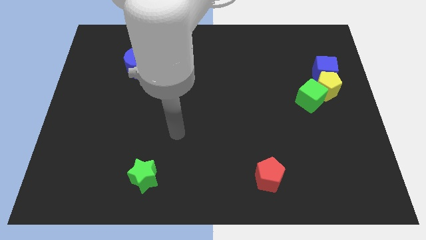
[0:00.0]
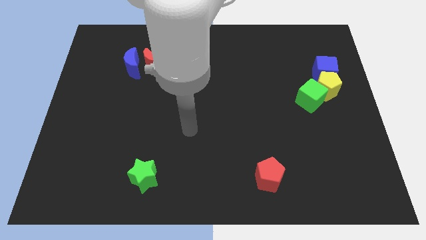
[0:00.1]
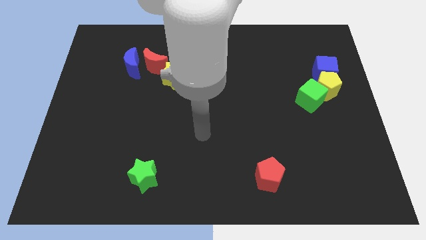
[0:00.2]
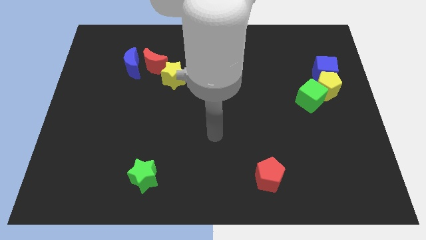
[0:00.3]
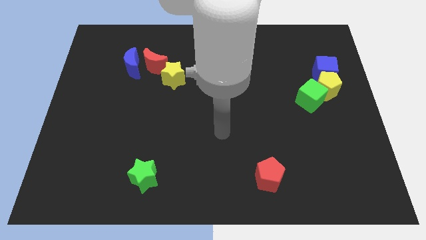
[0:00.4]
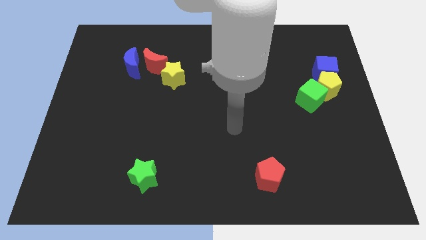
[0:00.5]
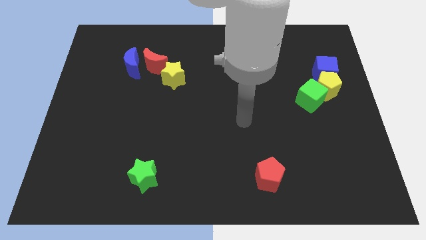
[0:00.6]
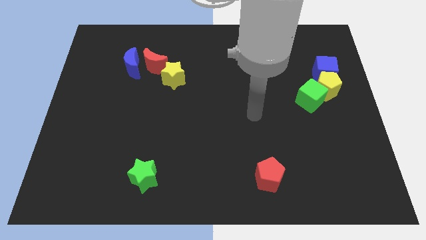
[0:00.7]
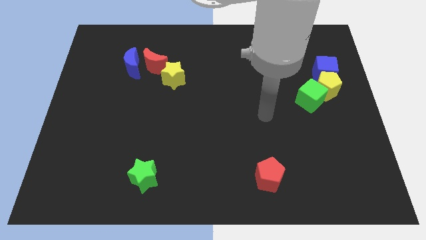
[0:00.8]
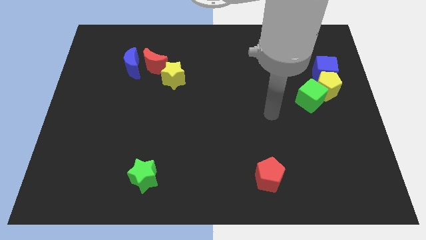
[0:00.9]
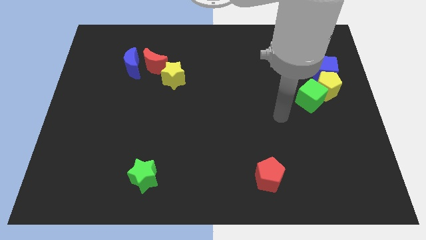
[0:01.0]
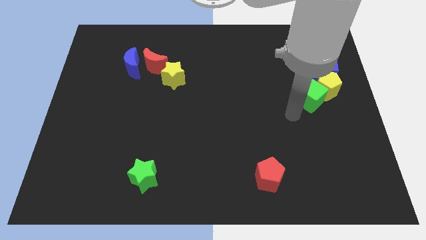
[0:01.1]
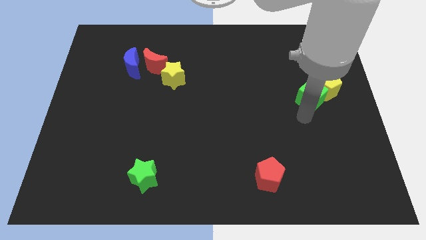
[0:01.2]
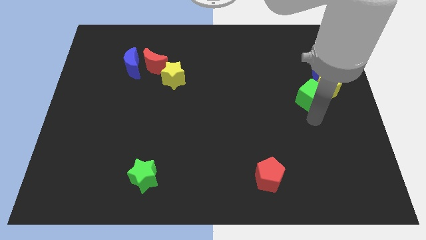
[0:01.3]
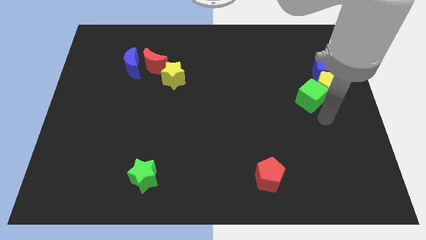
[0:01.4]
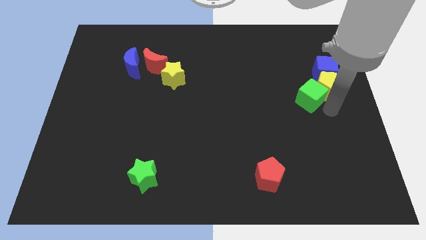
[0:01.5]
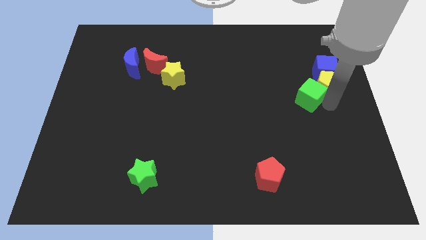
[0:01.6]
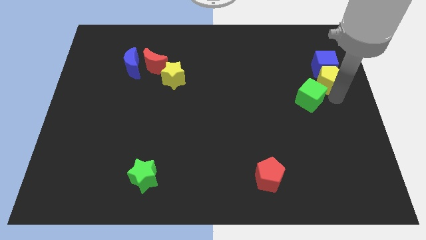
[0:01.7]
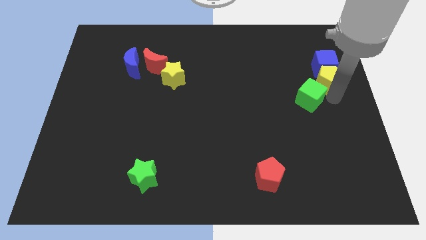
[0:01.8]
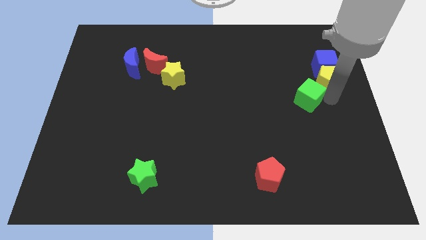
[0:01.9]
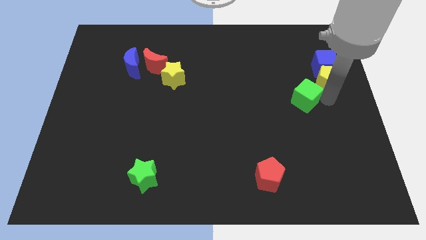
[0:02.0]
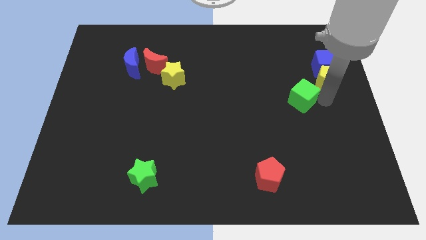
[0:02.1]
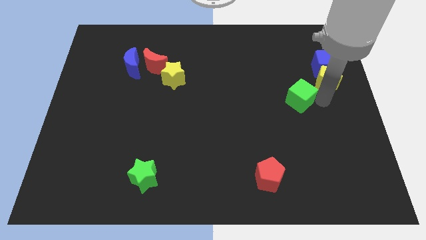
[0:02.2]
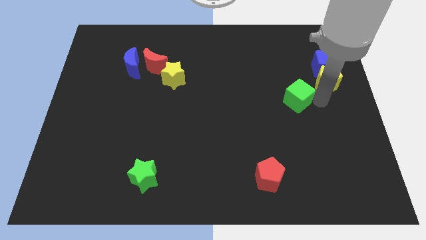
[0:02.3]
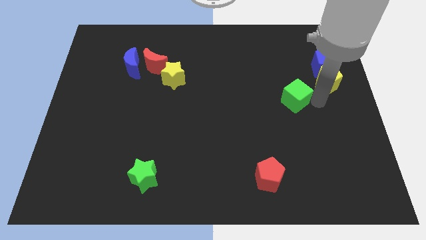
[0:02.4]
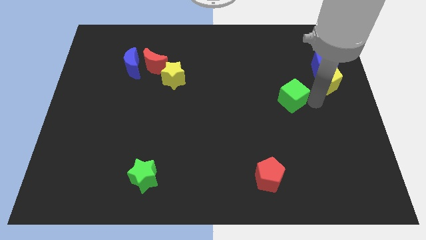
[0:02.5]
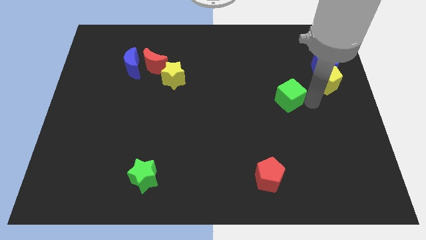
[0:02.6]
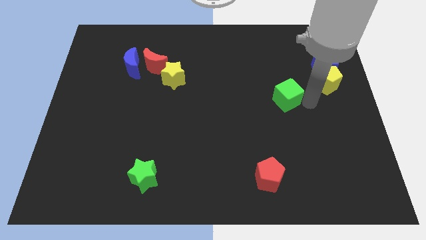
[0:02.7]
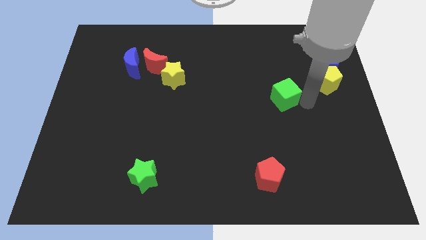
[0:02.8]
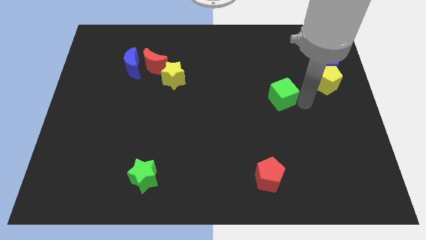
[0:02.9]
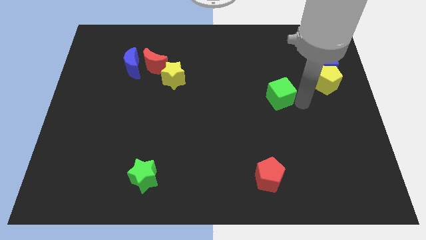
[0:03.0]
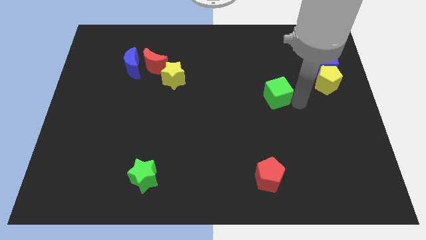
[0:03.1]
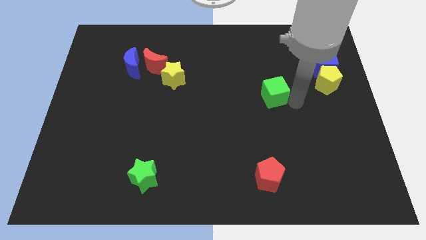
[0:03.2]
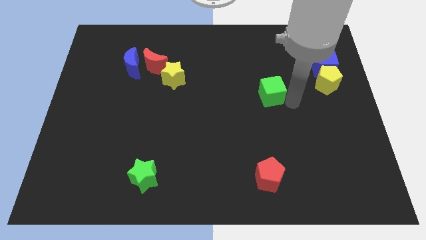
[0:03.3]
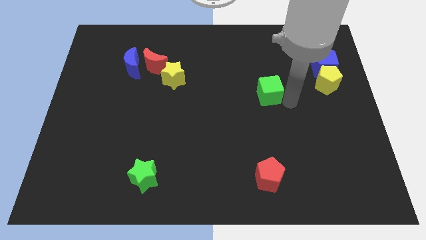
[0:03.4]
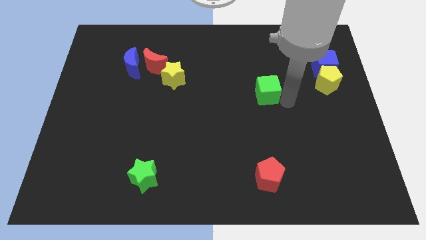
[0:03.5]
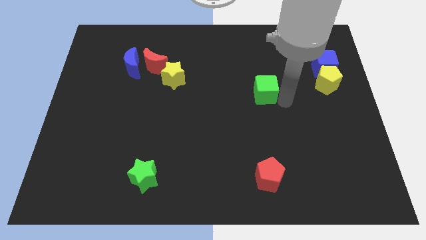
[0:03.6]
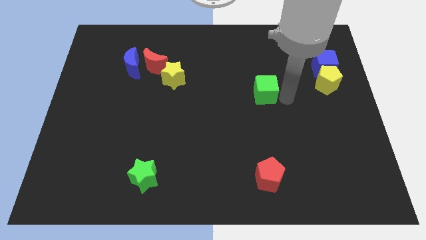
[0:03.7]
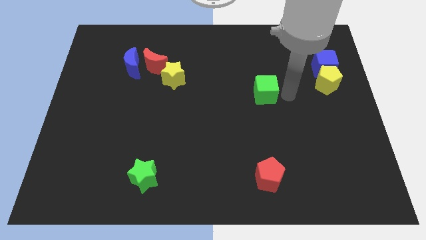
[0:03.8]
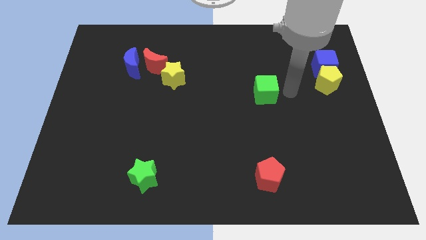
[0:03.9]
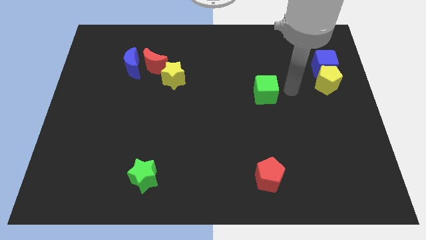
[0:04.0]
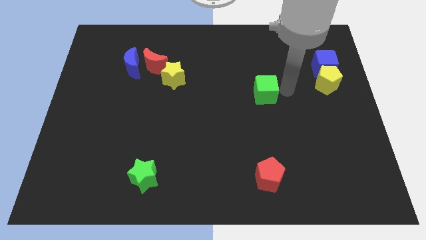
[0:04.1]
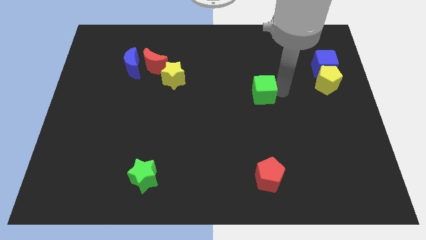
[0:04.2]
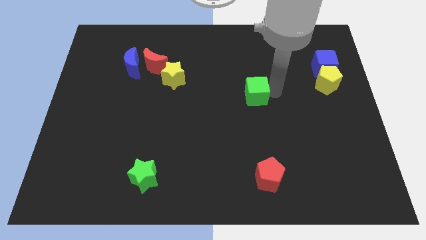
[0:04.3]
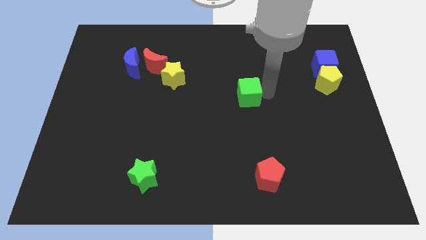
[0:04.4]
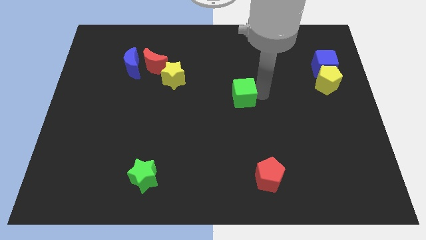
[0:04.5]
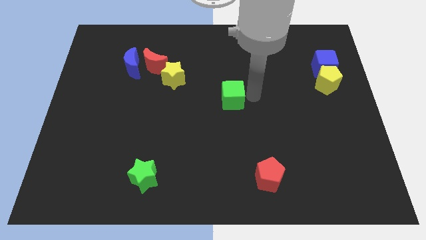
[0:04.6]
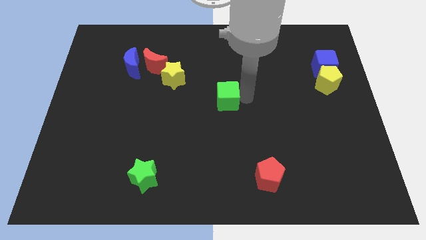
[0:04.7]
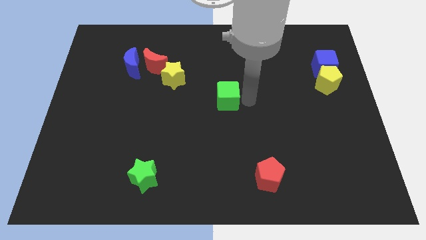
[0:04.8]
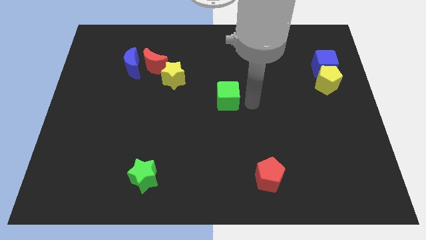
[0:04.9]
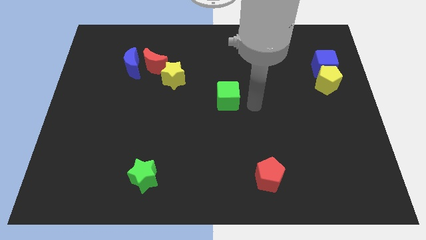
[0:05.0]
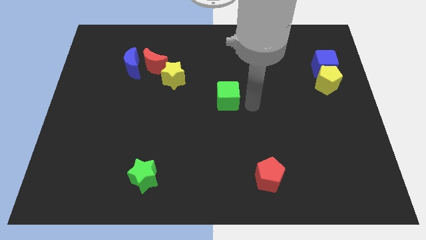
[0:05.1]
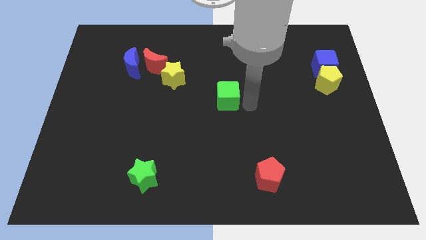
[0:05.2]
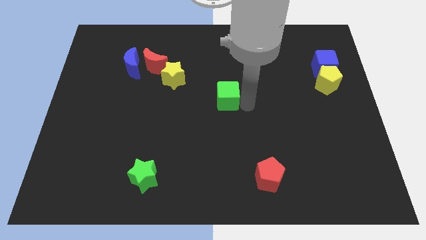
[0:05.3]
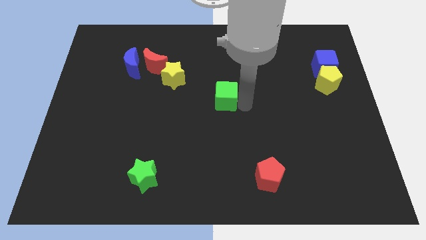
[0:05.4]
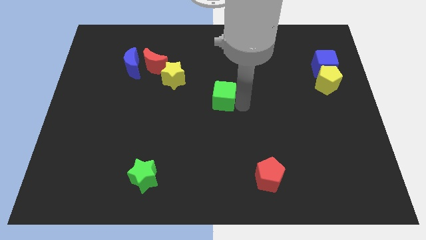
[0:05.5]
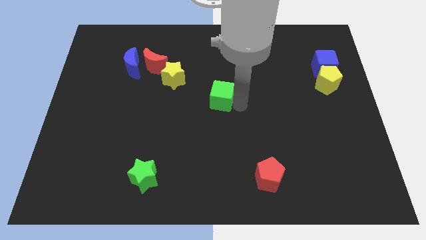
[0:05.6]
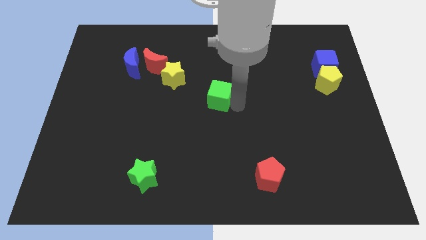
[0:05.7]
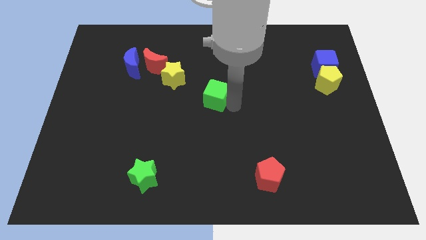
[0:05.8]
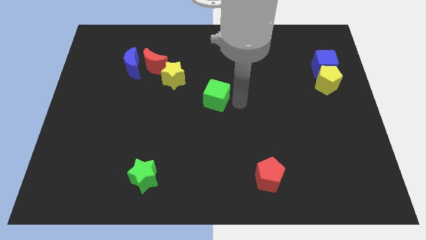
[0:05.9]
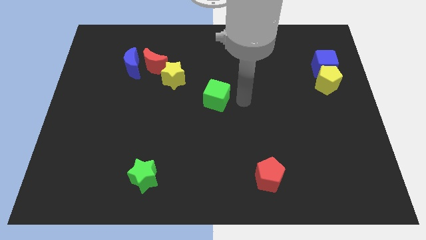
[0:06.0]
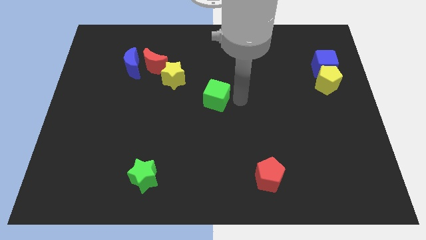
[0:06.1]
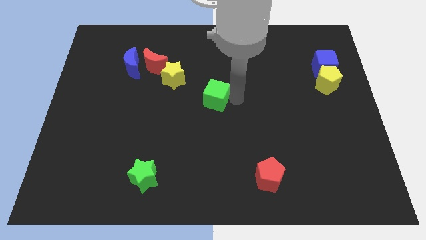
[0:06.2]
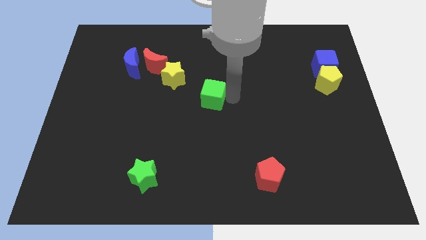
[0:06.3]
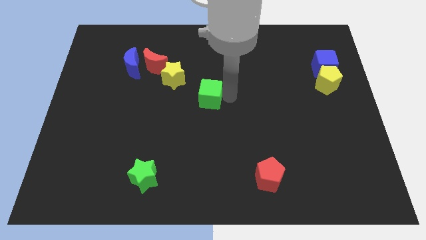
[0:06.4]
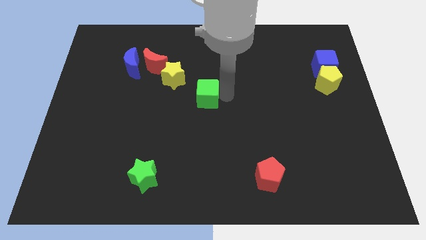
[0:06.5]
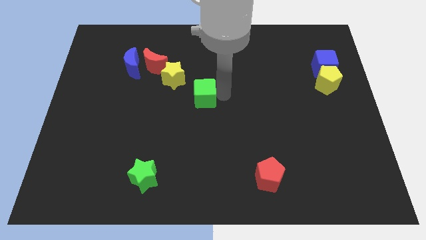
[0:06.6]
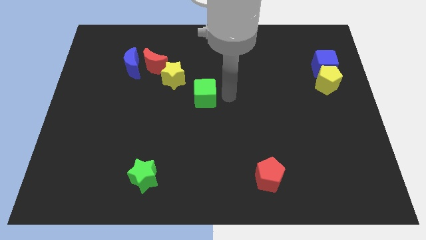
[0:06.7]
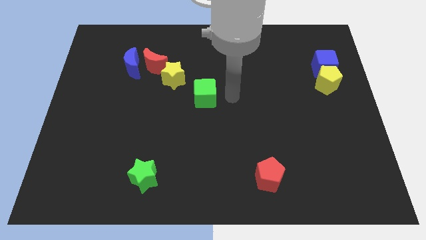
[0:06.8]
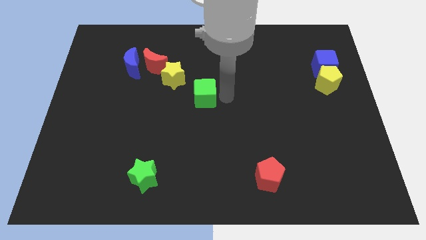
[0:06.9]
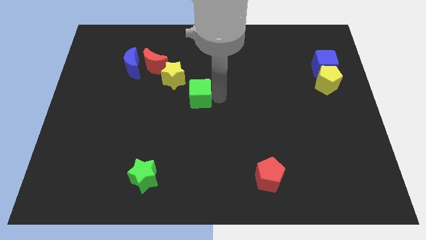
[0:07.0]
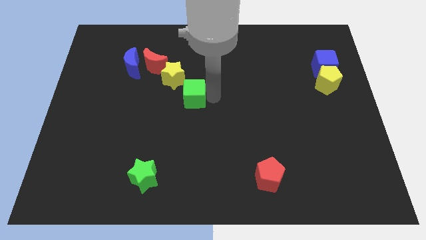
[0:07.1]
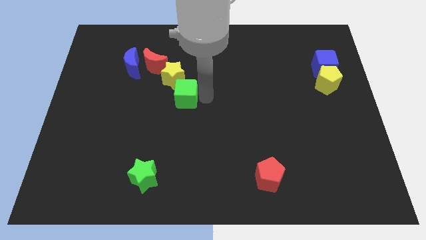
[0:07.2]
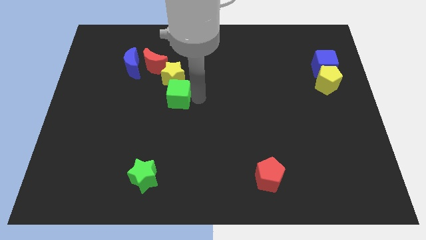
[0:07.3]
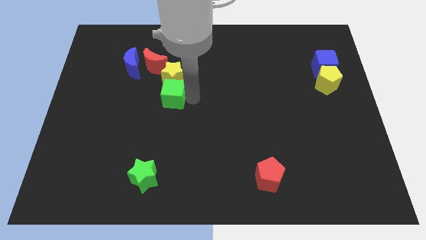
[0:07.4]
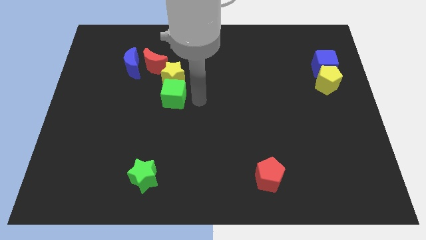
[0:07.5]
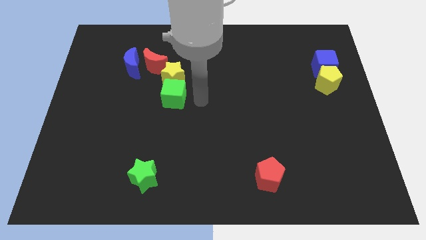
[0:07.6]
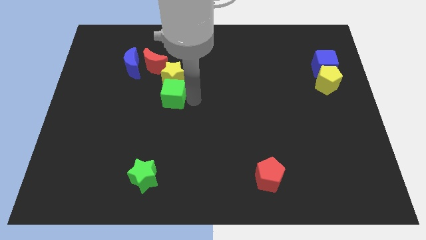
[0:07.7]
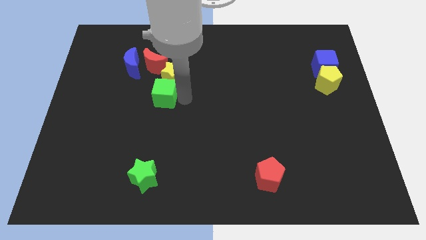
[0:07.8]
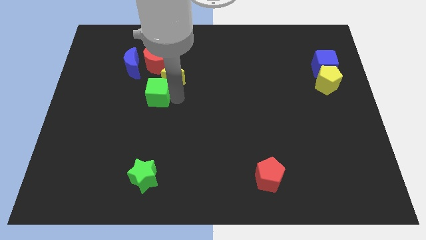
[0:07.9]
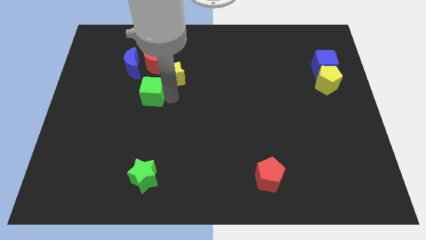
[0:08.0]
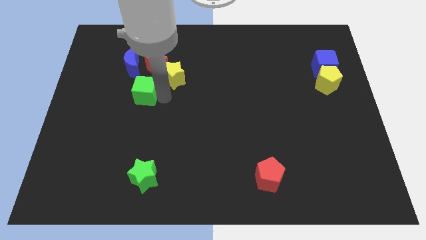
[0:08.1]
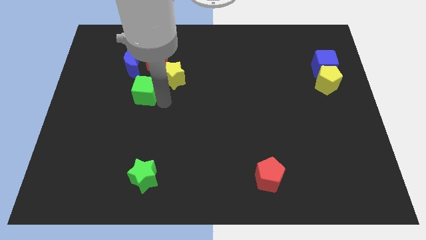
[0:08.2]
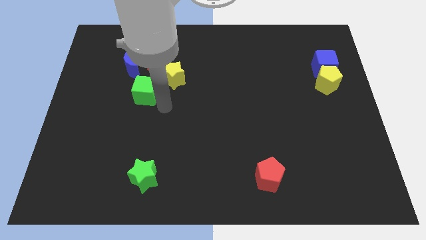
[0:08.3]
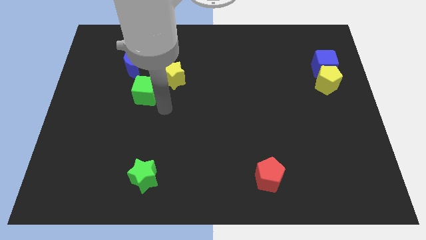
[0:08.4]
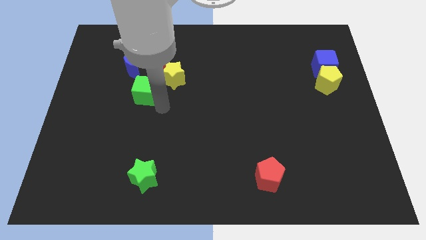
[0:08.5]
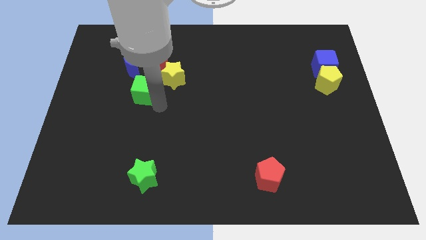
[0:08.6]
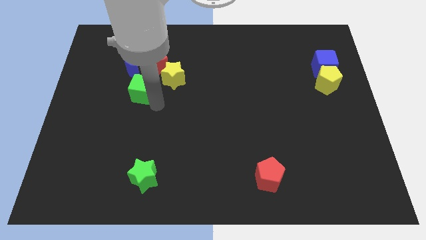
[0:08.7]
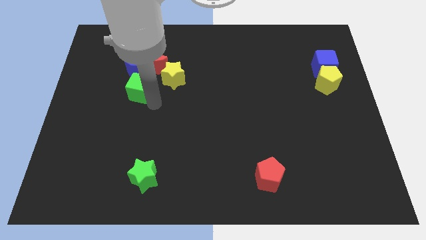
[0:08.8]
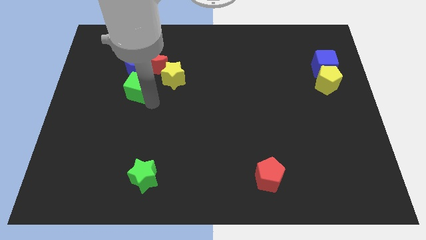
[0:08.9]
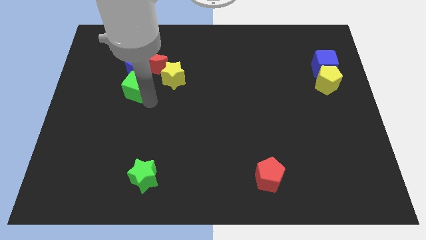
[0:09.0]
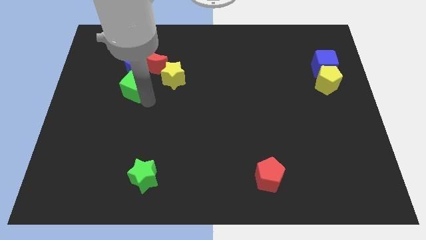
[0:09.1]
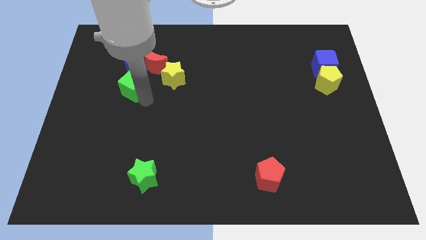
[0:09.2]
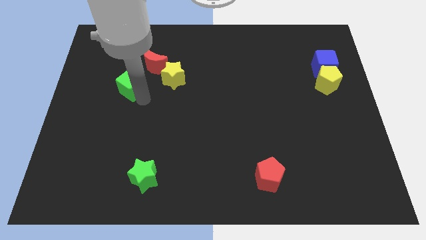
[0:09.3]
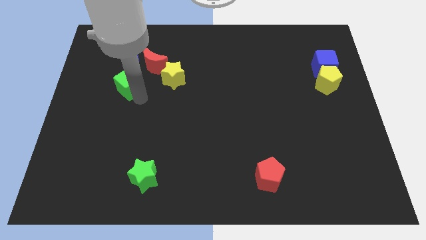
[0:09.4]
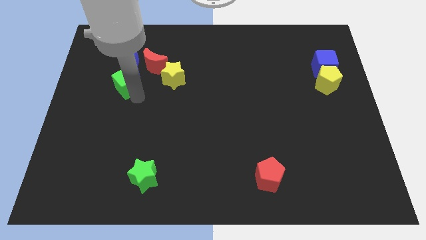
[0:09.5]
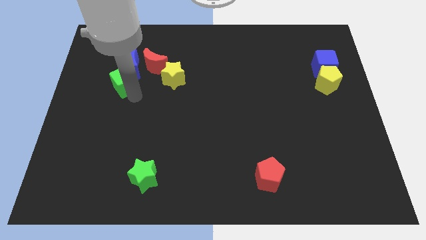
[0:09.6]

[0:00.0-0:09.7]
slide the green cube close to the blue moon
